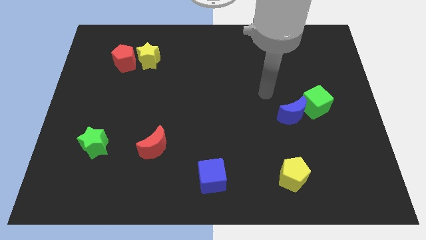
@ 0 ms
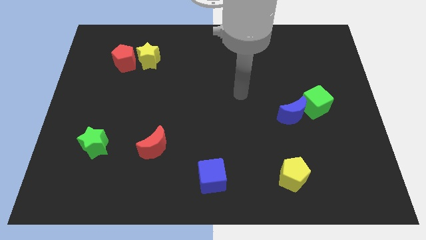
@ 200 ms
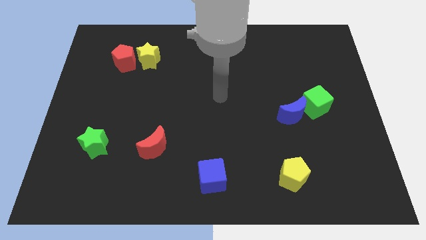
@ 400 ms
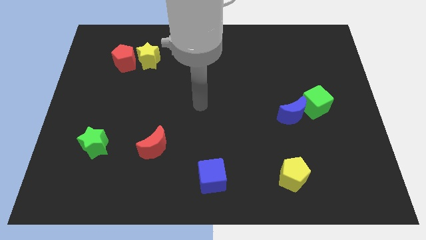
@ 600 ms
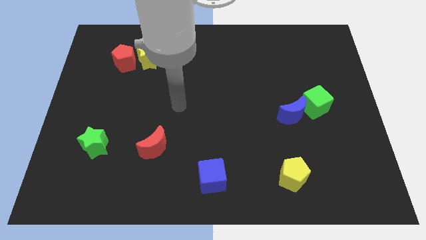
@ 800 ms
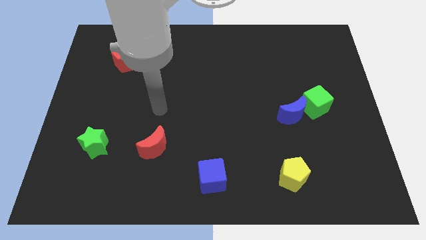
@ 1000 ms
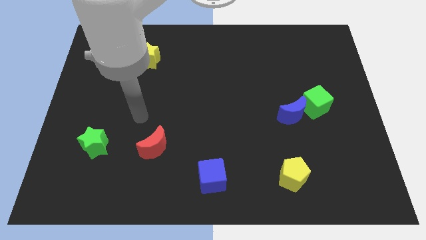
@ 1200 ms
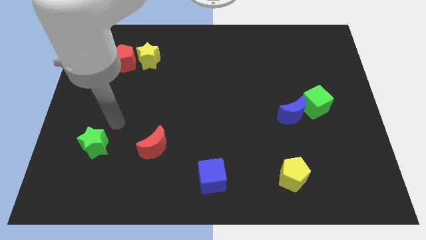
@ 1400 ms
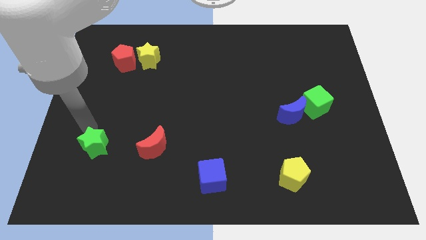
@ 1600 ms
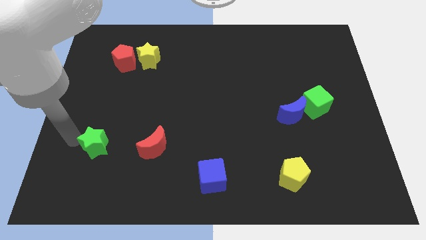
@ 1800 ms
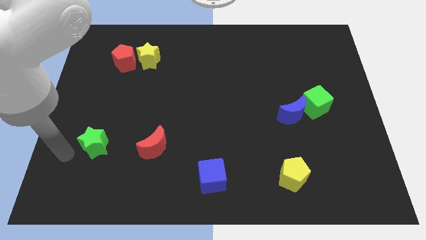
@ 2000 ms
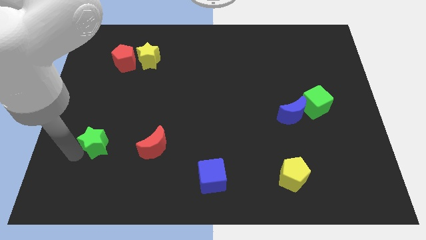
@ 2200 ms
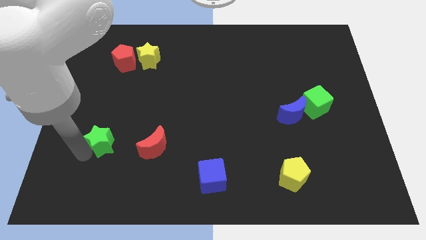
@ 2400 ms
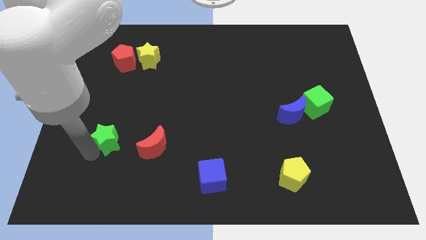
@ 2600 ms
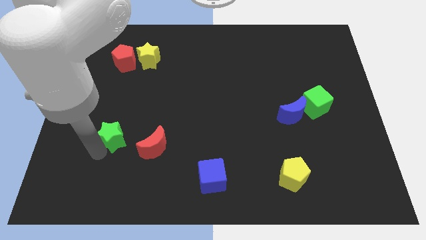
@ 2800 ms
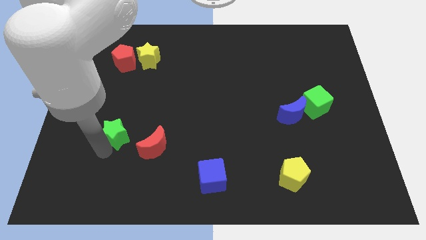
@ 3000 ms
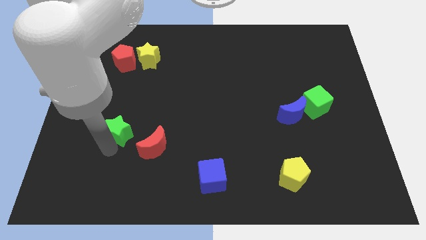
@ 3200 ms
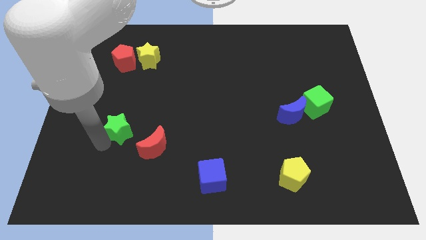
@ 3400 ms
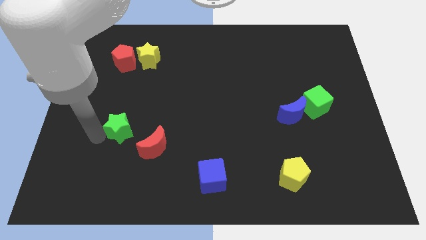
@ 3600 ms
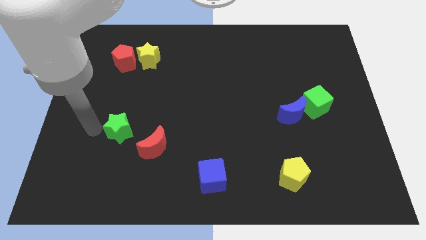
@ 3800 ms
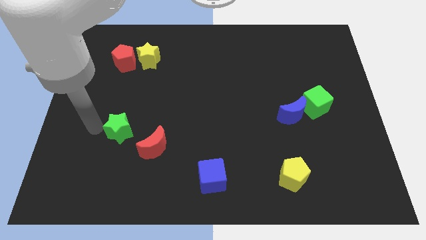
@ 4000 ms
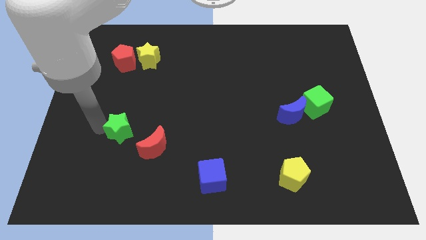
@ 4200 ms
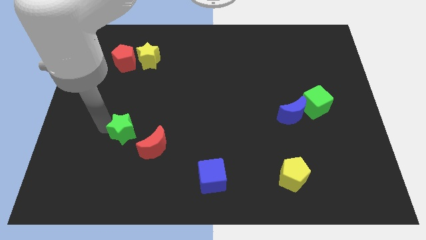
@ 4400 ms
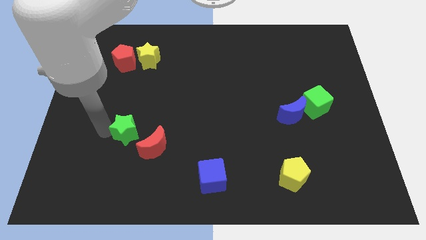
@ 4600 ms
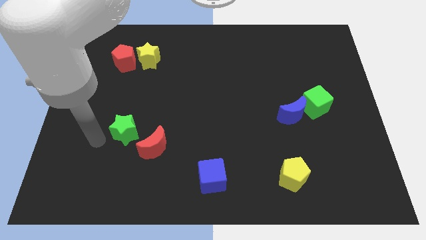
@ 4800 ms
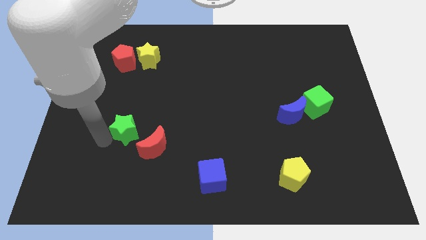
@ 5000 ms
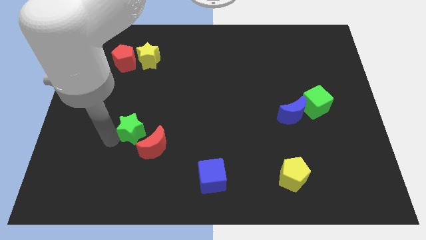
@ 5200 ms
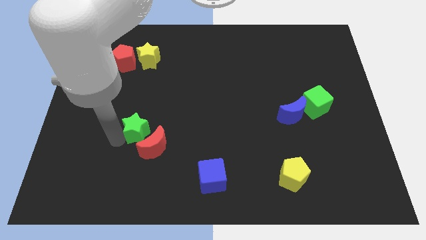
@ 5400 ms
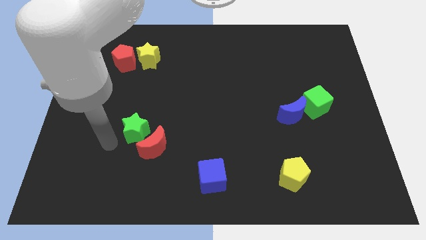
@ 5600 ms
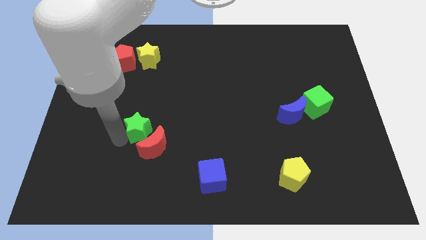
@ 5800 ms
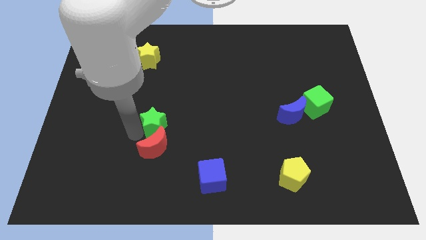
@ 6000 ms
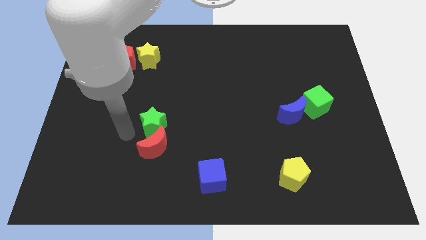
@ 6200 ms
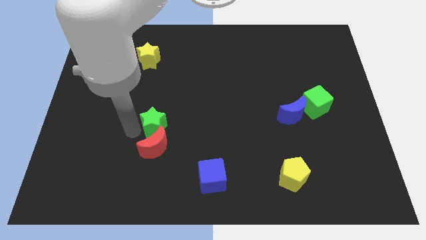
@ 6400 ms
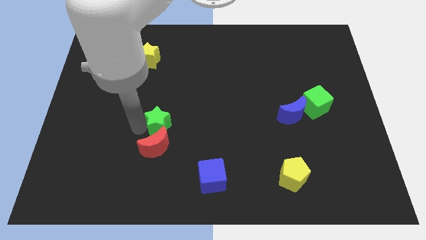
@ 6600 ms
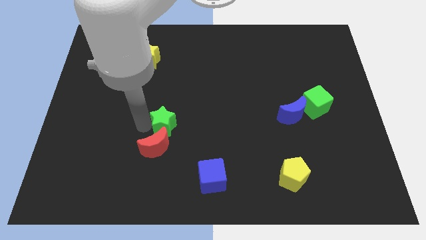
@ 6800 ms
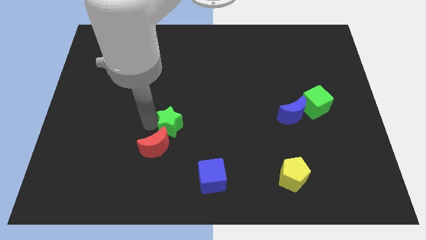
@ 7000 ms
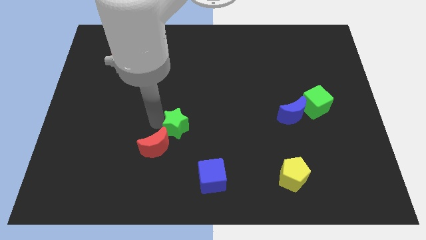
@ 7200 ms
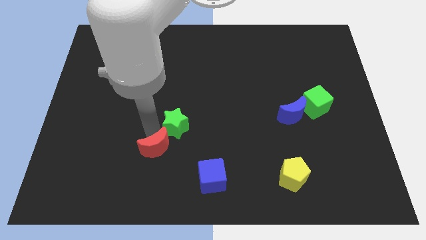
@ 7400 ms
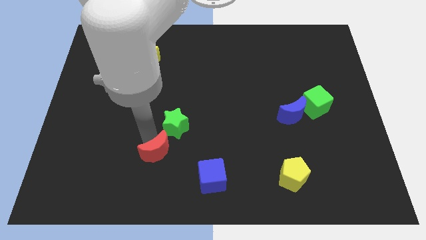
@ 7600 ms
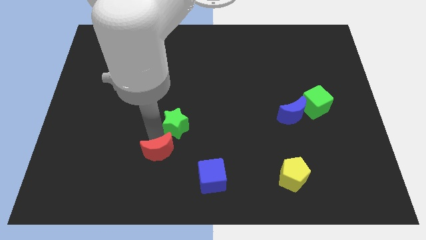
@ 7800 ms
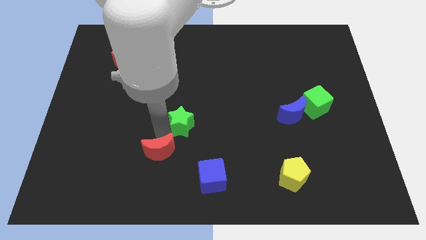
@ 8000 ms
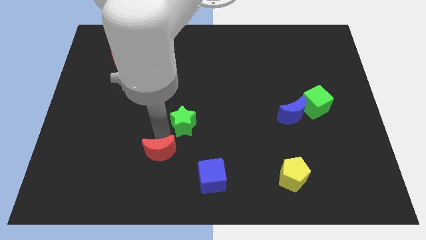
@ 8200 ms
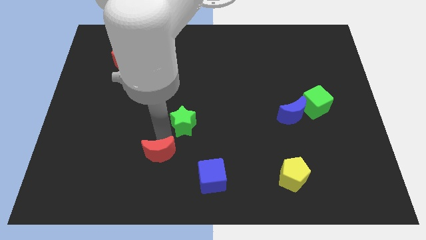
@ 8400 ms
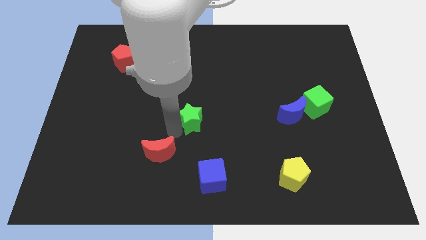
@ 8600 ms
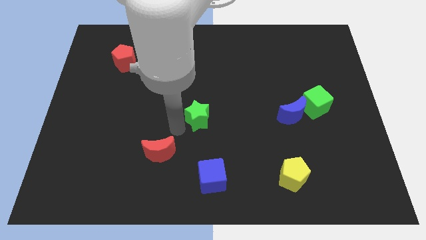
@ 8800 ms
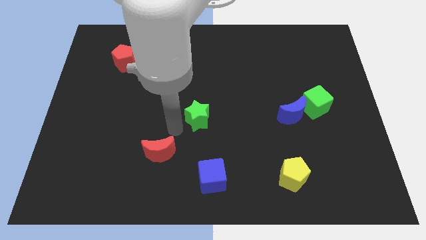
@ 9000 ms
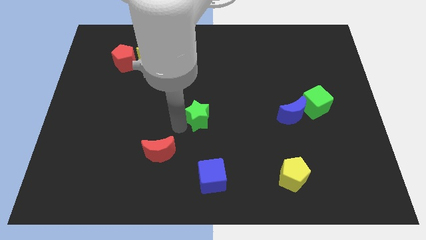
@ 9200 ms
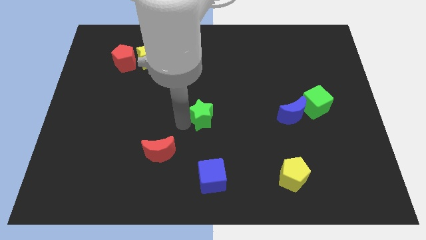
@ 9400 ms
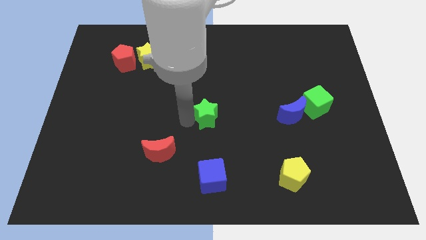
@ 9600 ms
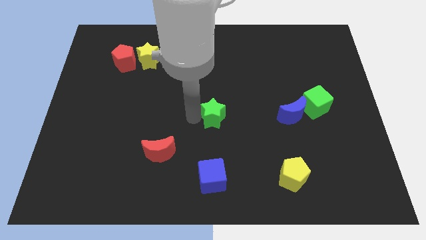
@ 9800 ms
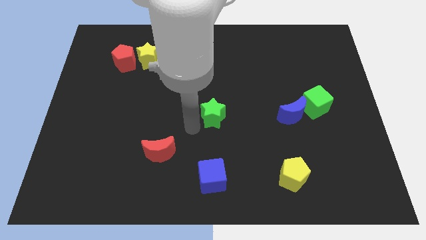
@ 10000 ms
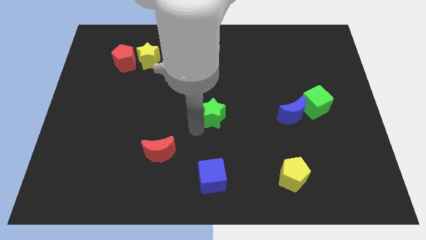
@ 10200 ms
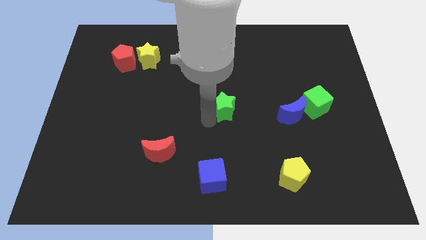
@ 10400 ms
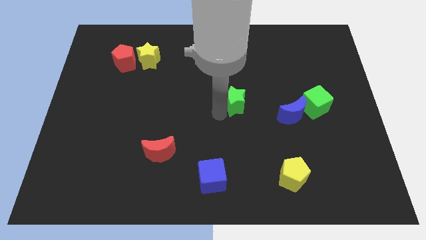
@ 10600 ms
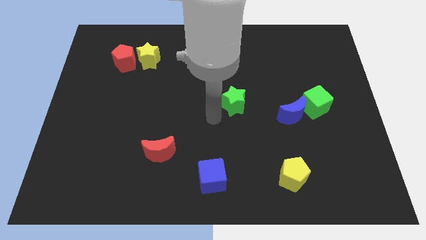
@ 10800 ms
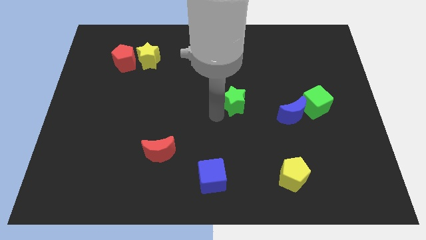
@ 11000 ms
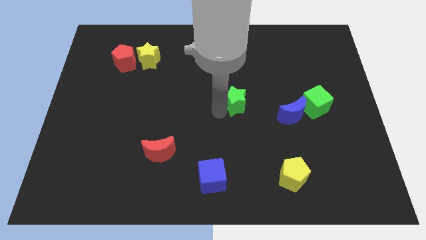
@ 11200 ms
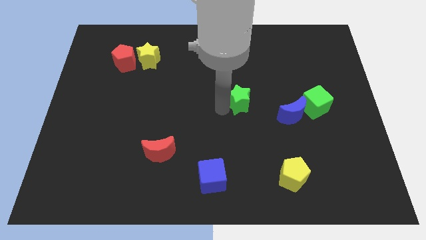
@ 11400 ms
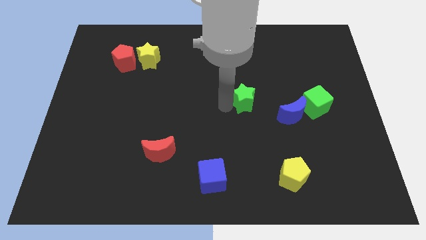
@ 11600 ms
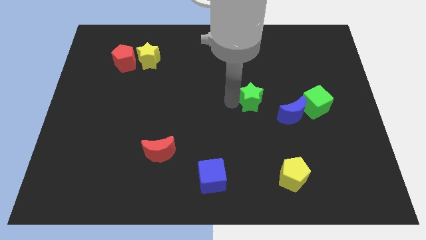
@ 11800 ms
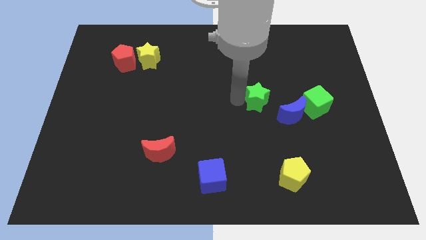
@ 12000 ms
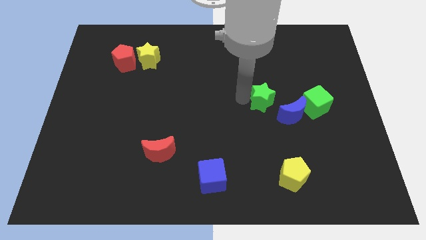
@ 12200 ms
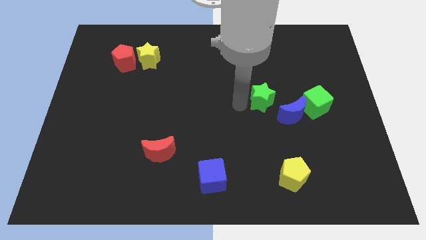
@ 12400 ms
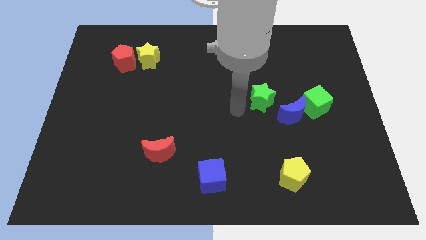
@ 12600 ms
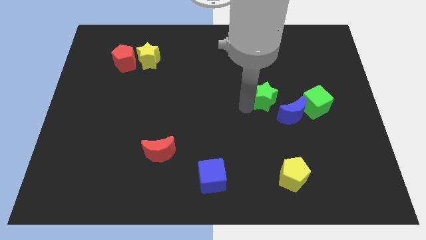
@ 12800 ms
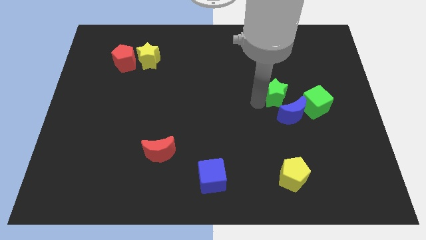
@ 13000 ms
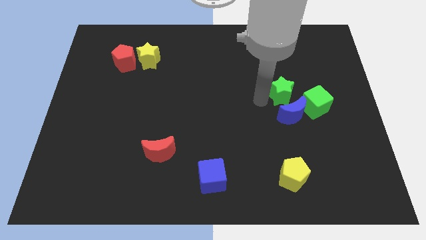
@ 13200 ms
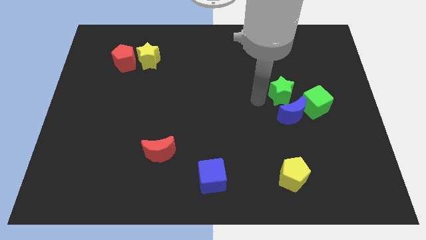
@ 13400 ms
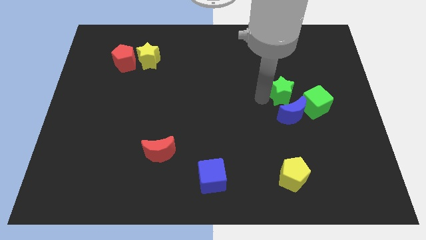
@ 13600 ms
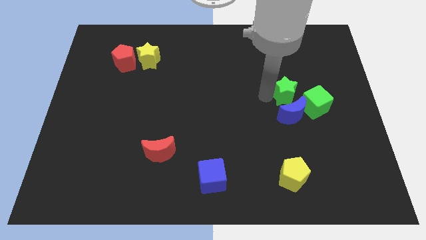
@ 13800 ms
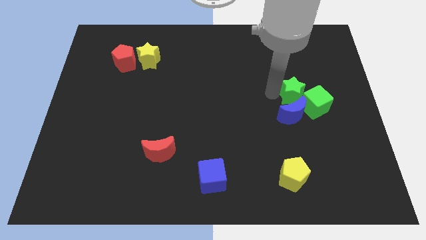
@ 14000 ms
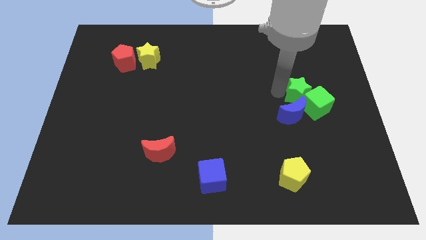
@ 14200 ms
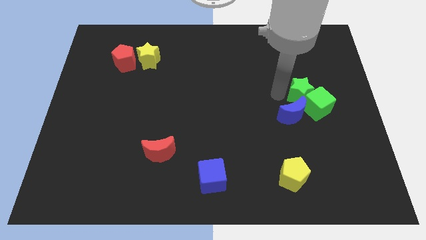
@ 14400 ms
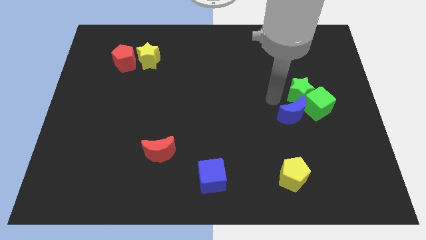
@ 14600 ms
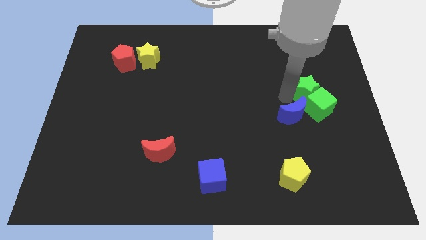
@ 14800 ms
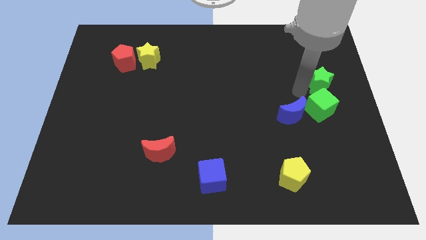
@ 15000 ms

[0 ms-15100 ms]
push the green star to the right side of the board
